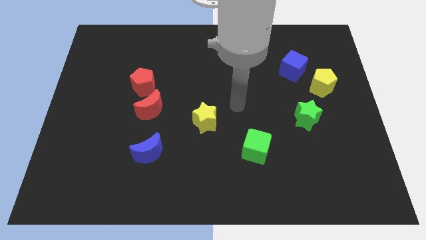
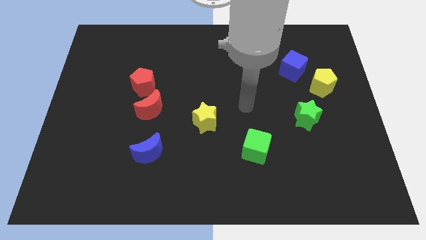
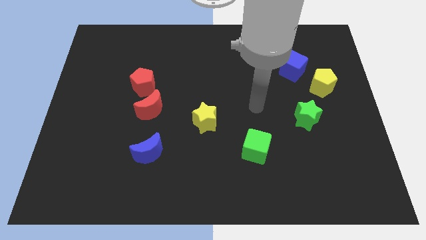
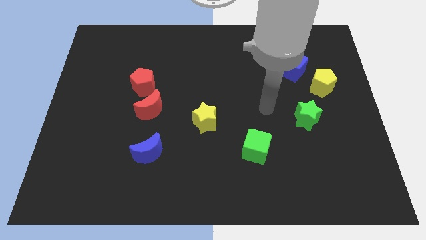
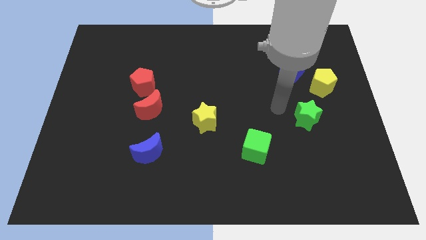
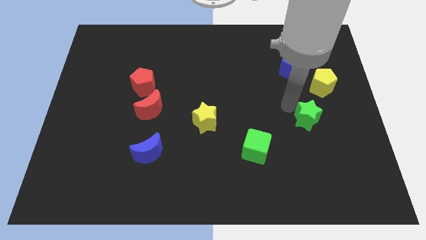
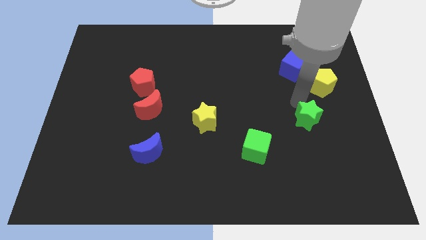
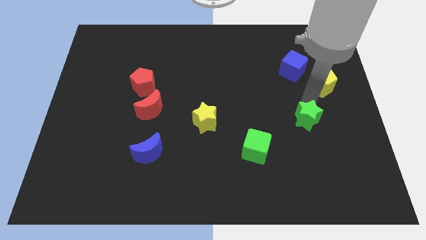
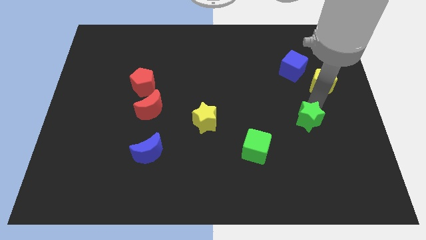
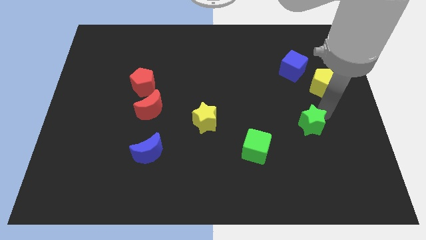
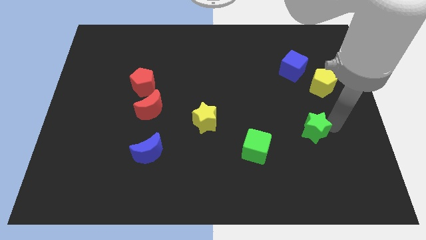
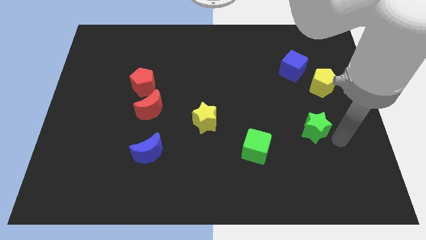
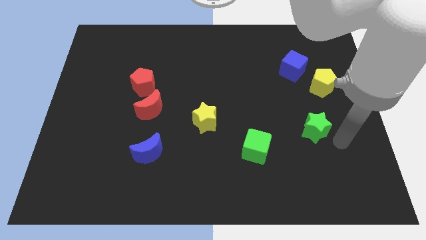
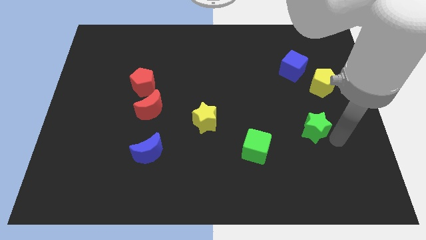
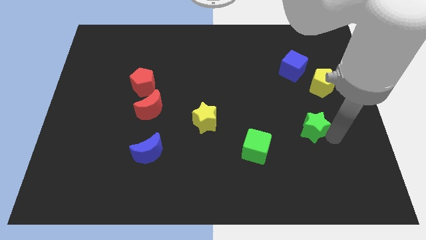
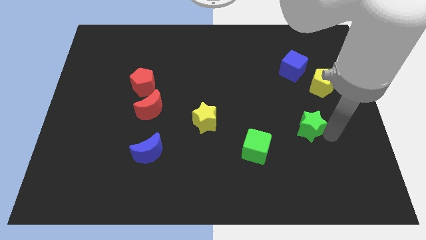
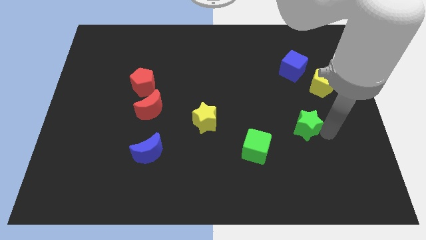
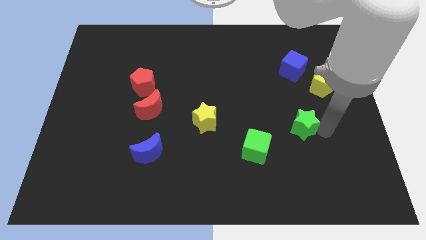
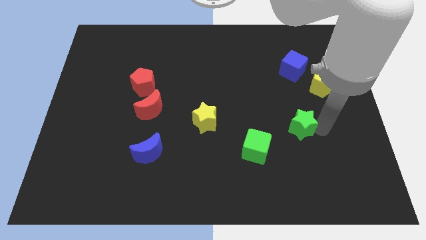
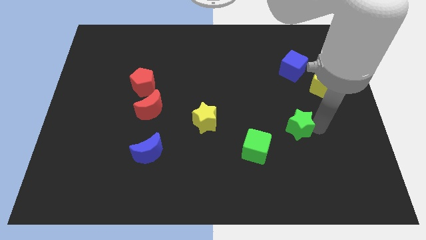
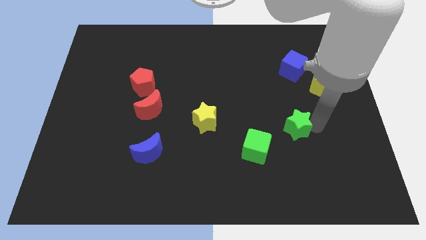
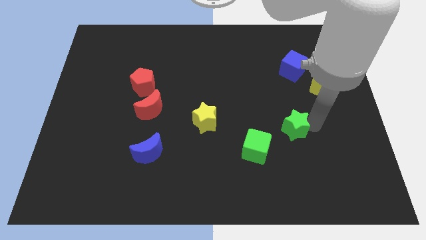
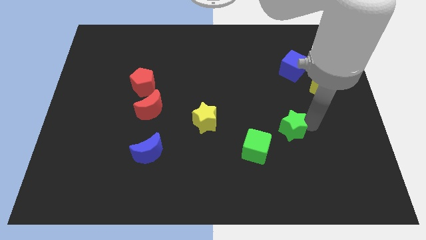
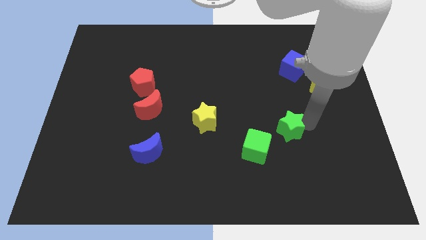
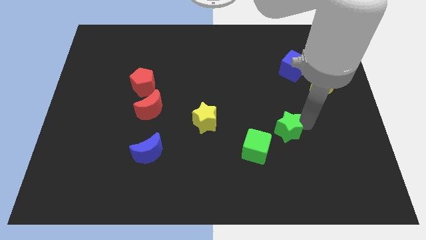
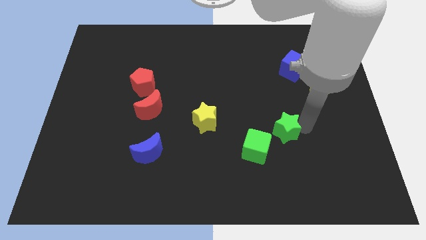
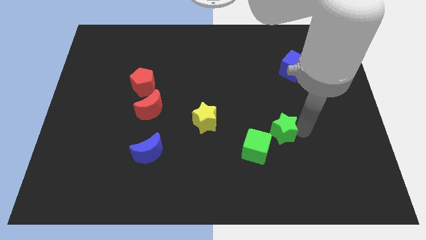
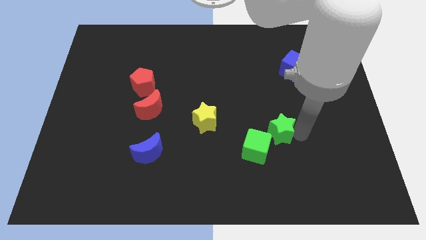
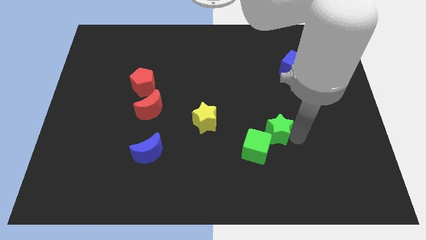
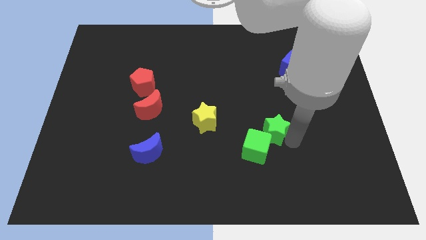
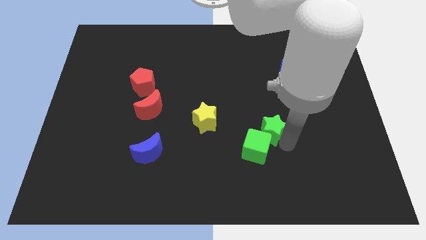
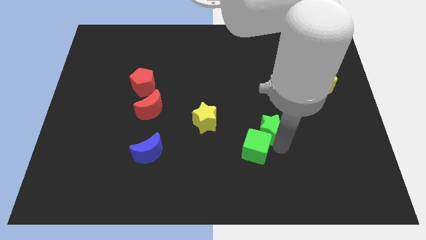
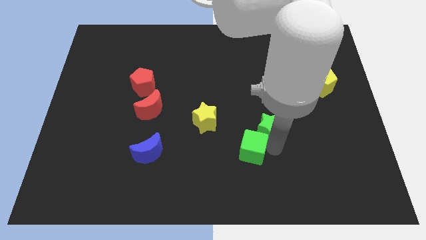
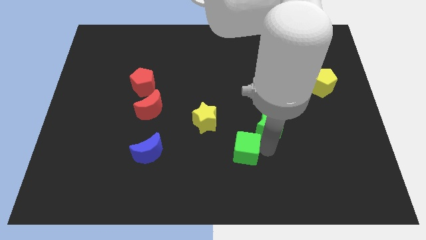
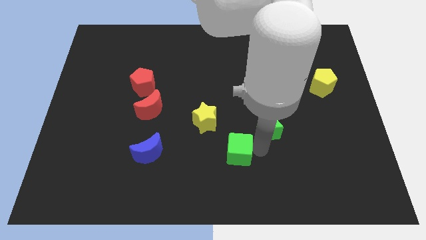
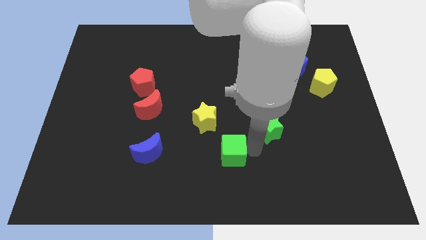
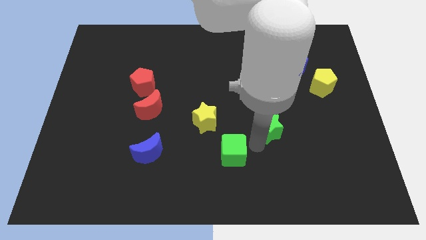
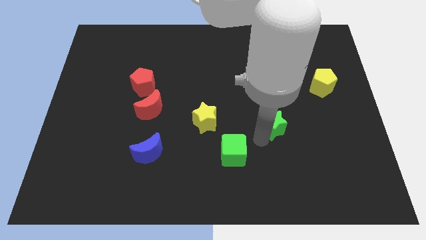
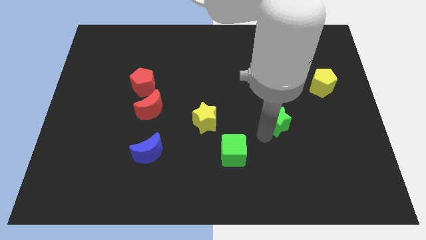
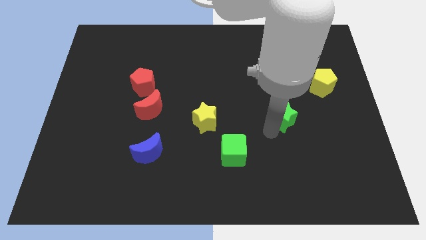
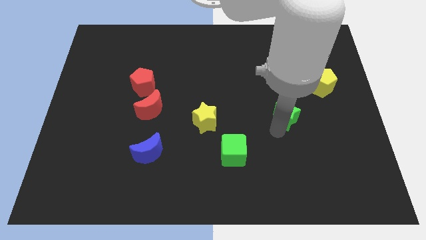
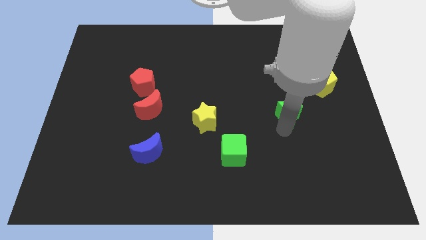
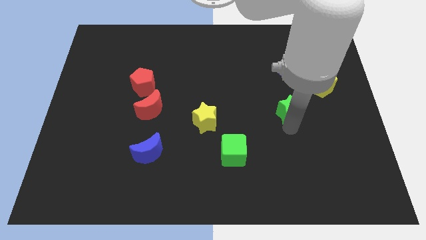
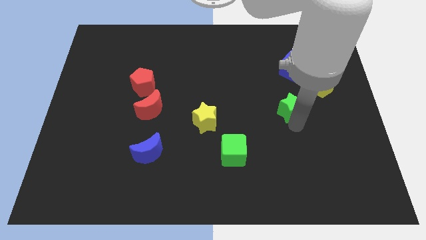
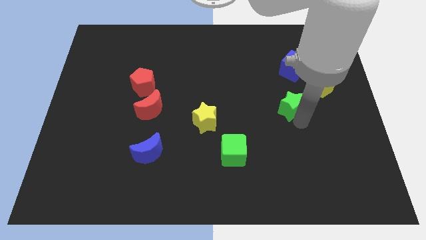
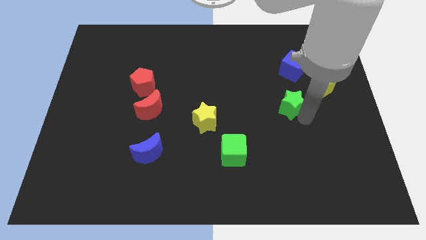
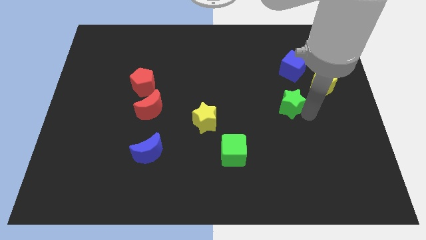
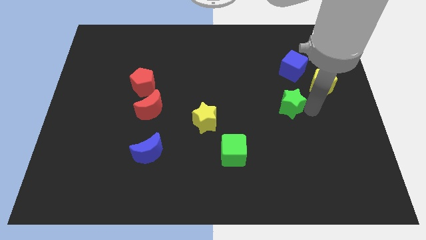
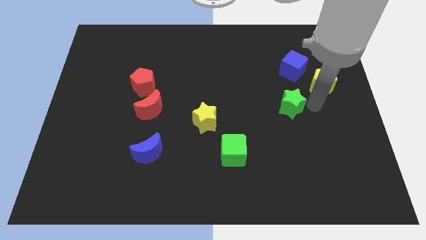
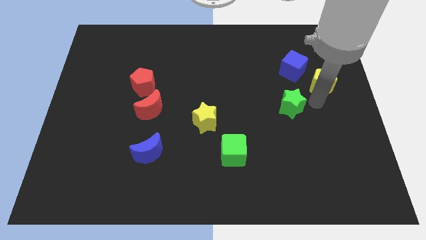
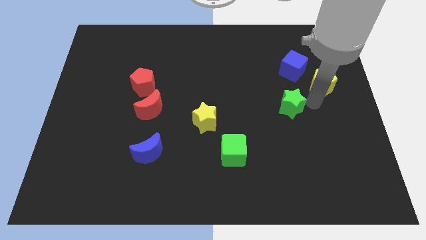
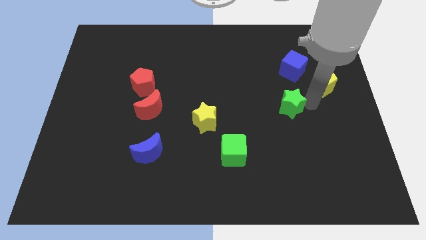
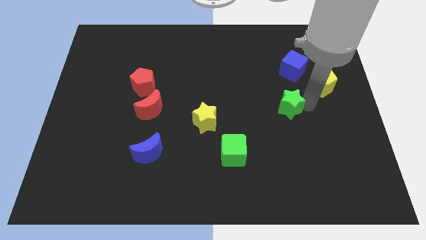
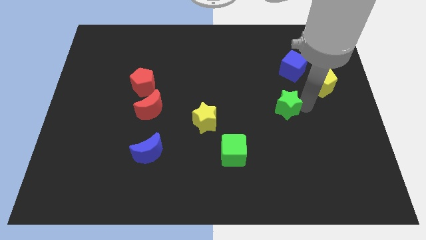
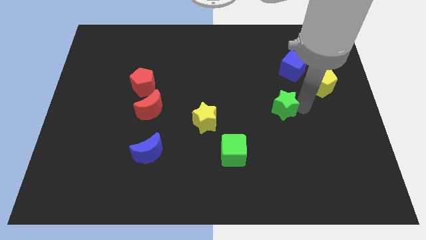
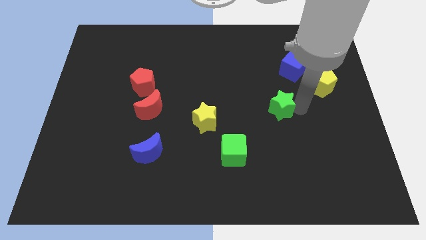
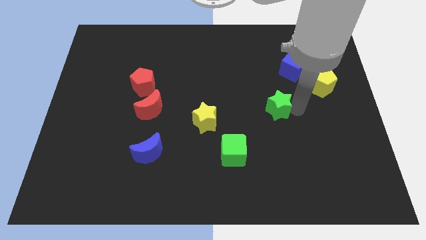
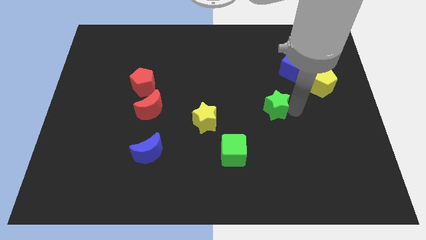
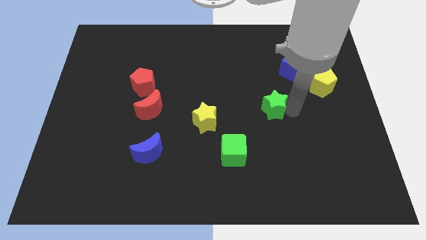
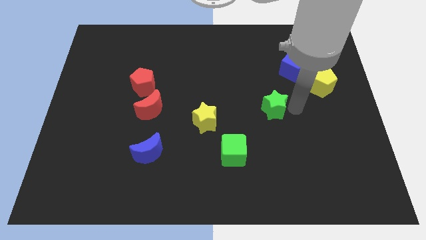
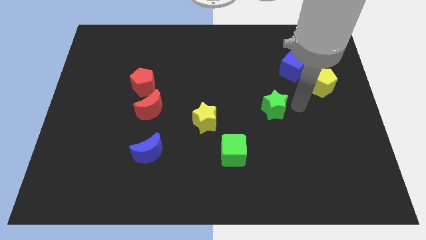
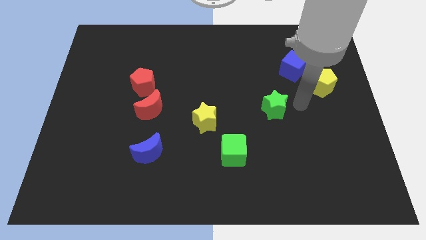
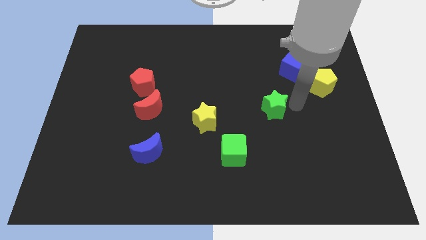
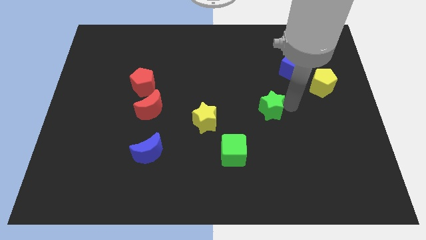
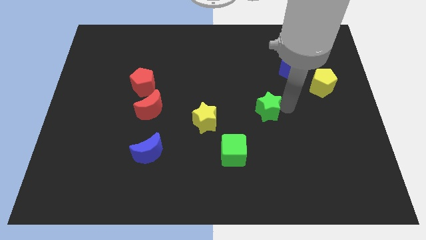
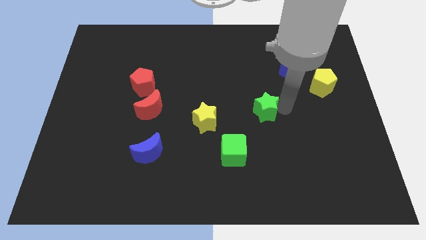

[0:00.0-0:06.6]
push the green star to the middle
